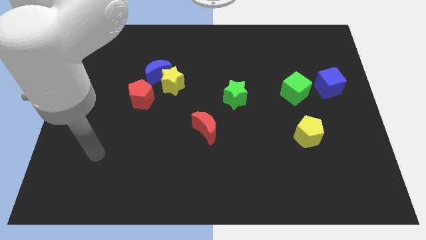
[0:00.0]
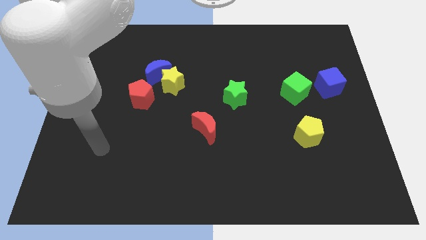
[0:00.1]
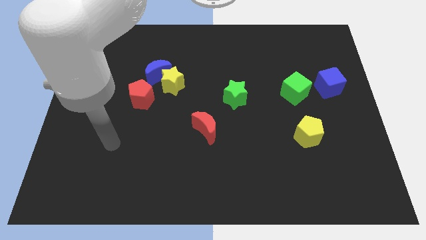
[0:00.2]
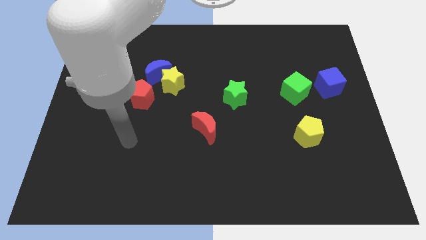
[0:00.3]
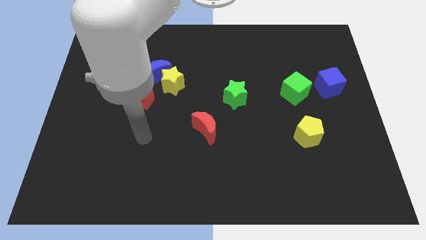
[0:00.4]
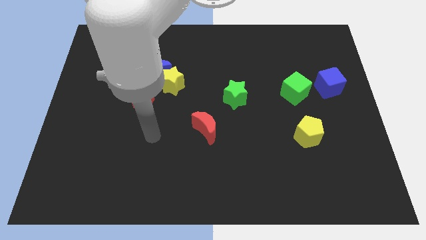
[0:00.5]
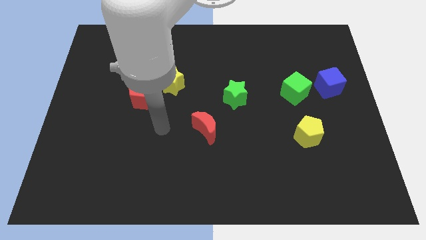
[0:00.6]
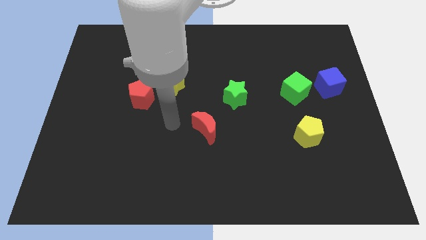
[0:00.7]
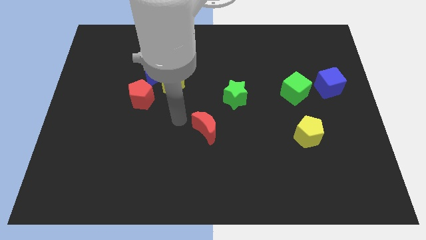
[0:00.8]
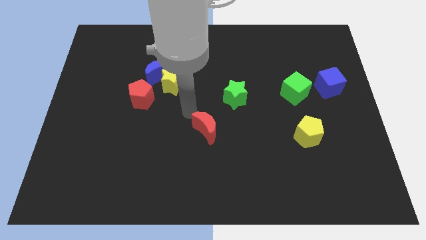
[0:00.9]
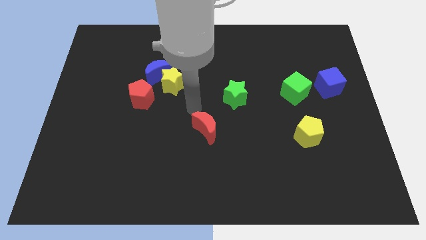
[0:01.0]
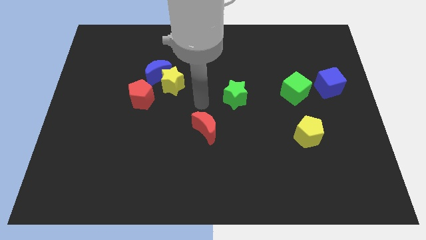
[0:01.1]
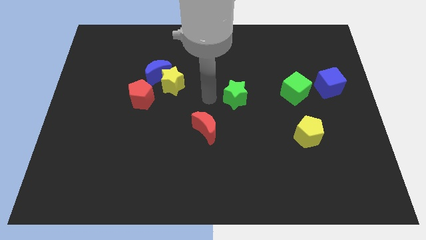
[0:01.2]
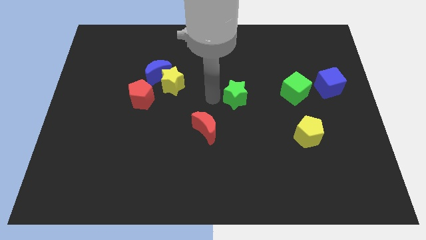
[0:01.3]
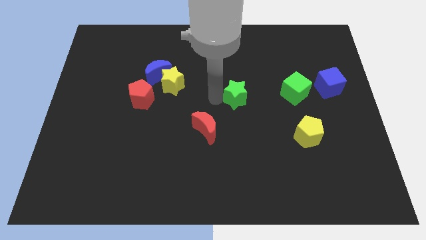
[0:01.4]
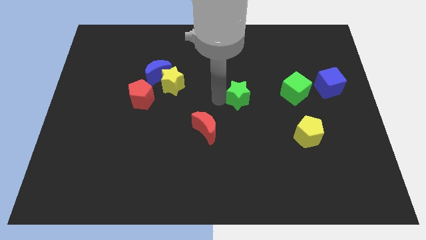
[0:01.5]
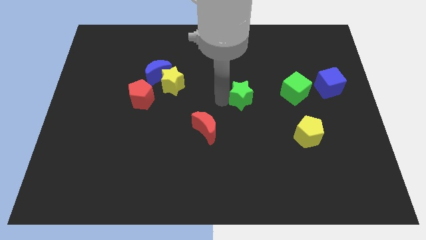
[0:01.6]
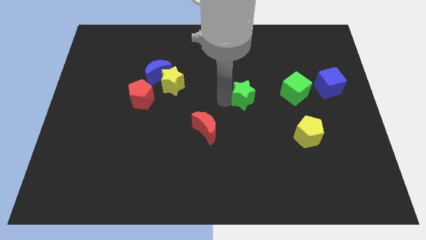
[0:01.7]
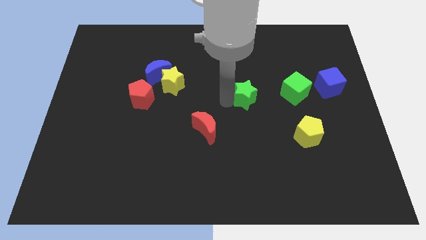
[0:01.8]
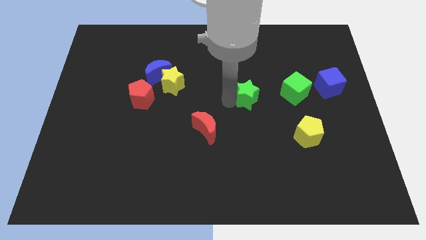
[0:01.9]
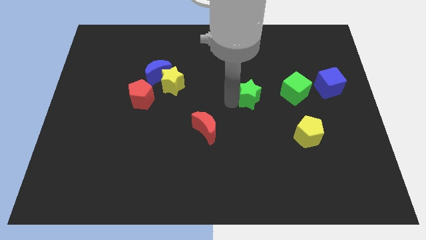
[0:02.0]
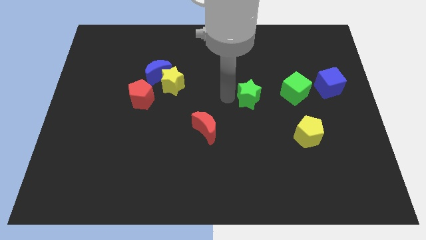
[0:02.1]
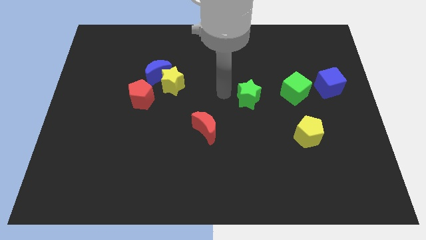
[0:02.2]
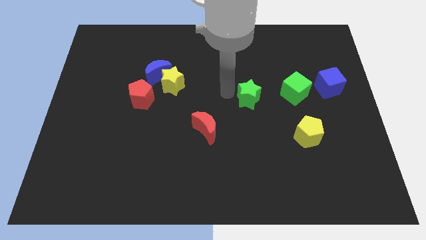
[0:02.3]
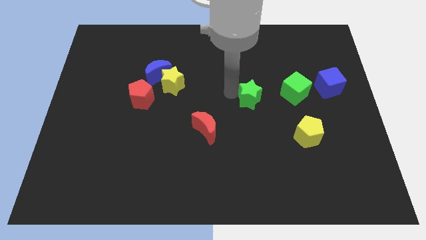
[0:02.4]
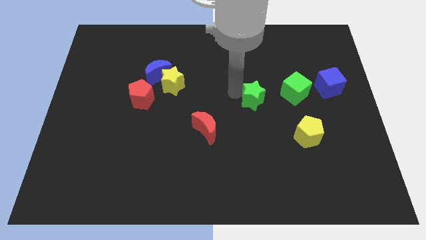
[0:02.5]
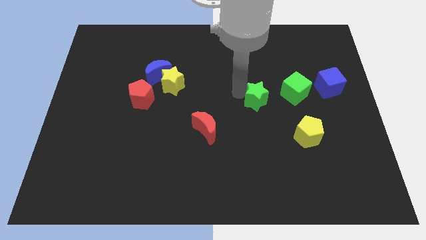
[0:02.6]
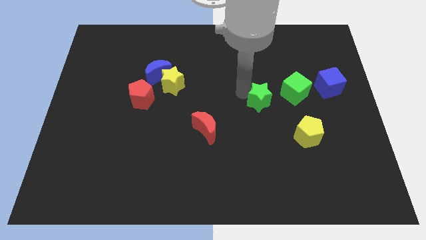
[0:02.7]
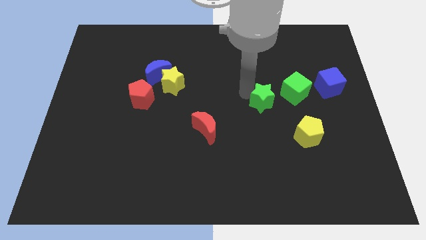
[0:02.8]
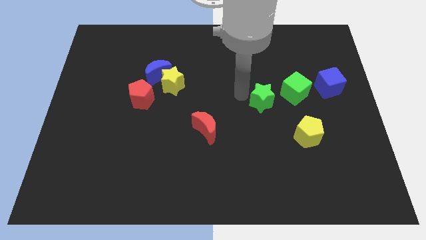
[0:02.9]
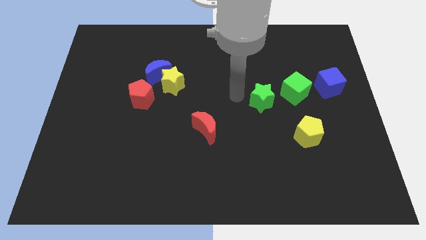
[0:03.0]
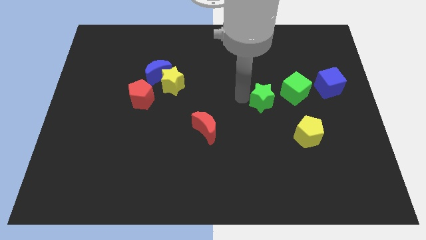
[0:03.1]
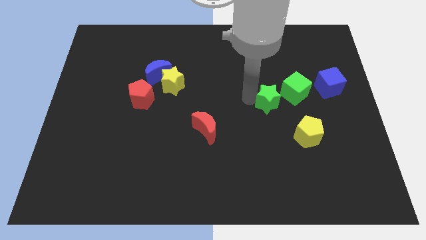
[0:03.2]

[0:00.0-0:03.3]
move the green star slightly to the right

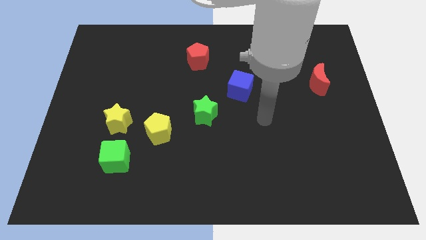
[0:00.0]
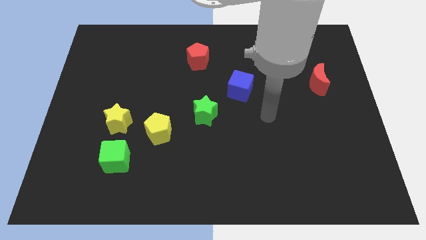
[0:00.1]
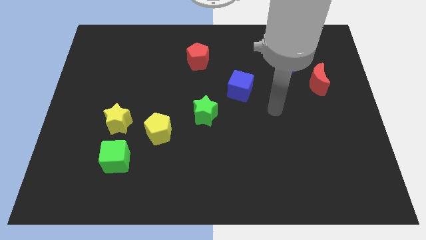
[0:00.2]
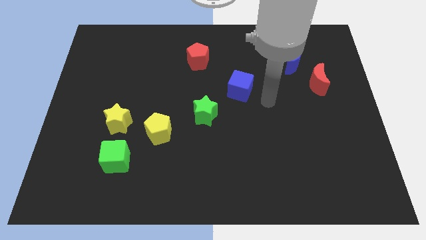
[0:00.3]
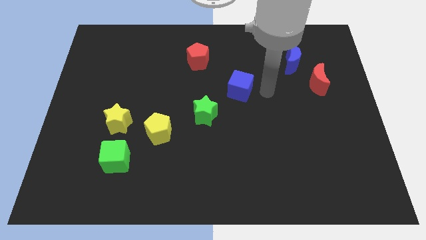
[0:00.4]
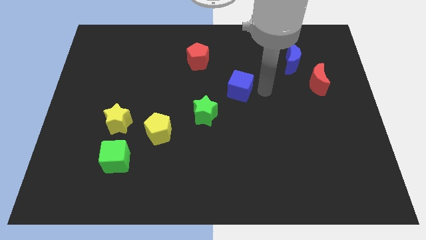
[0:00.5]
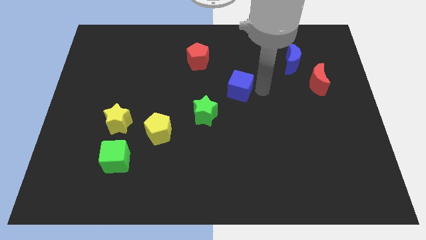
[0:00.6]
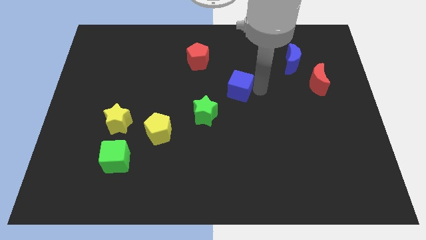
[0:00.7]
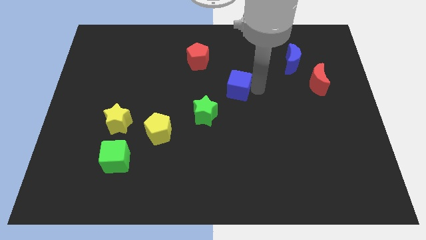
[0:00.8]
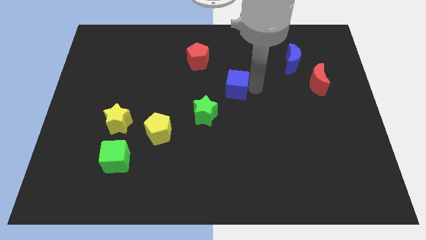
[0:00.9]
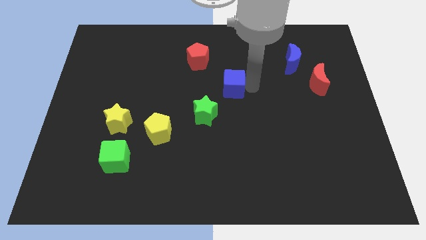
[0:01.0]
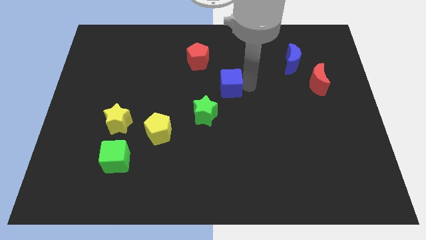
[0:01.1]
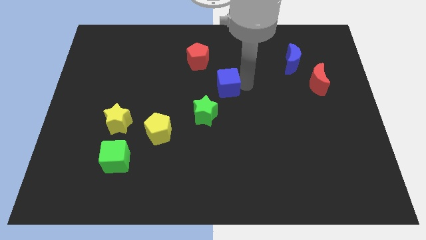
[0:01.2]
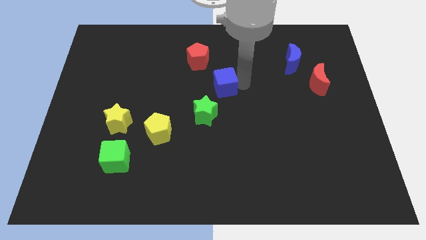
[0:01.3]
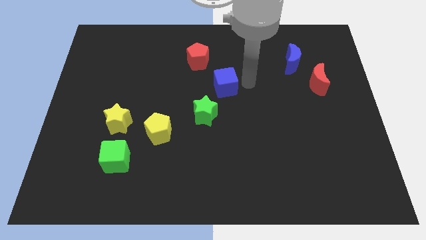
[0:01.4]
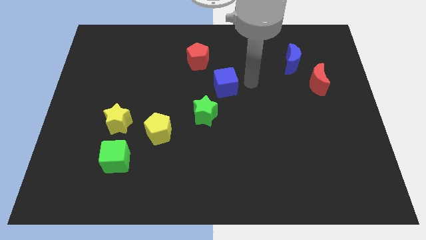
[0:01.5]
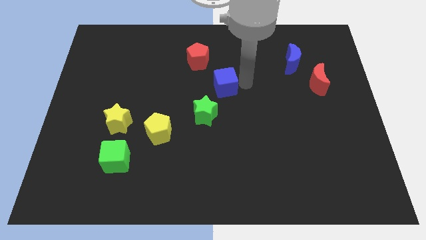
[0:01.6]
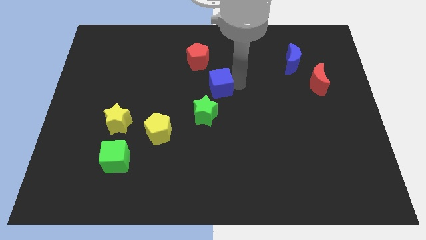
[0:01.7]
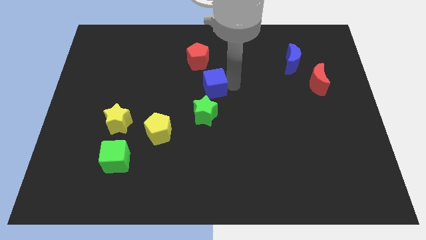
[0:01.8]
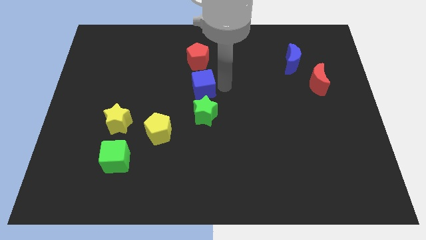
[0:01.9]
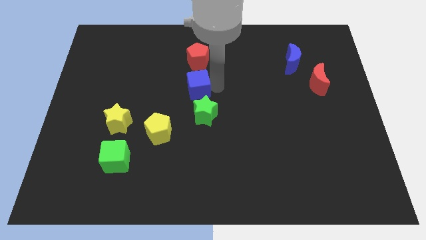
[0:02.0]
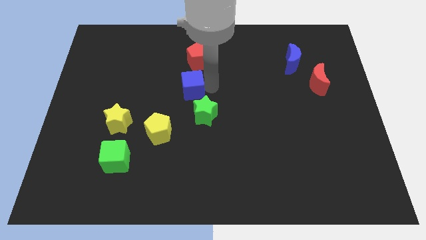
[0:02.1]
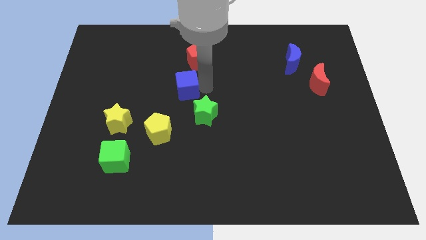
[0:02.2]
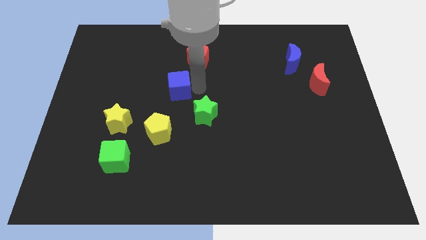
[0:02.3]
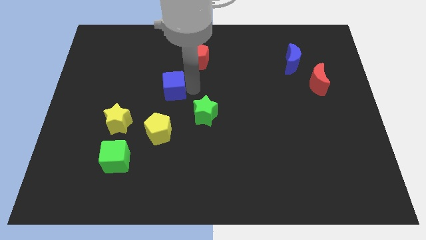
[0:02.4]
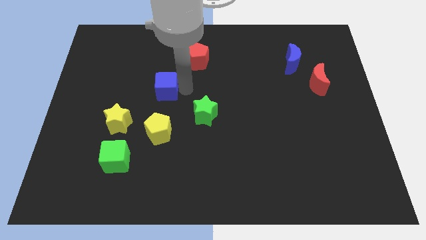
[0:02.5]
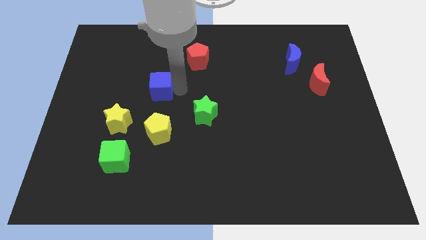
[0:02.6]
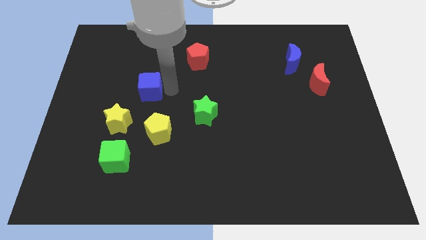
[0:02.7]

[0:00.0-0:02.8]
push the blue cube left

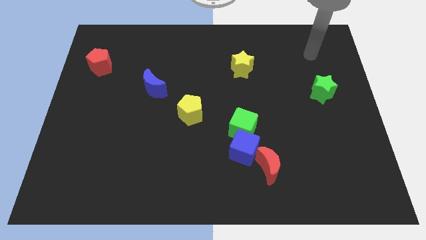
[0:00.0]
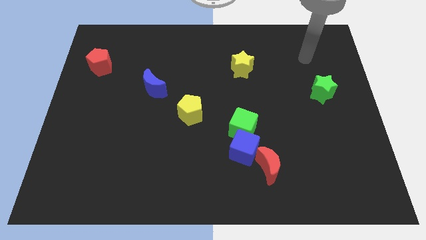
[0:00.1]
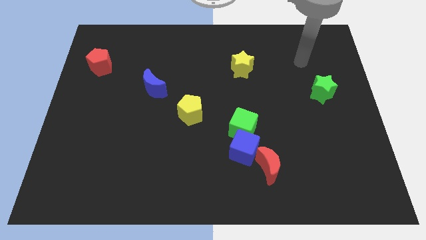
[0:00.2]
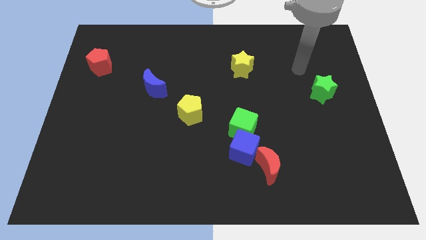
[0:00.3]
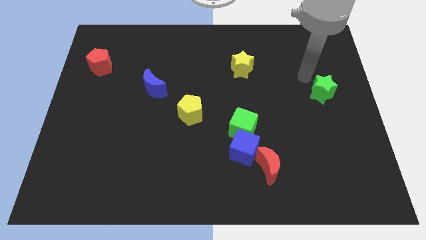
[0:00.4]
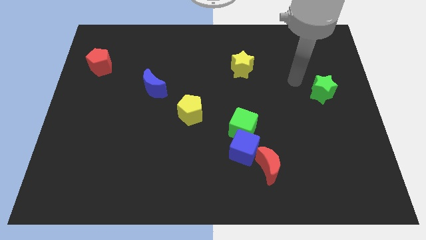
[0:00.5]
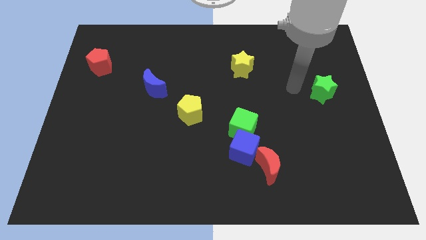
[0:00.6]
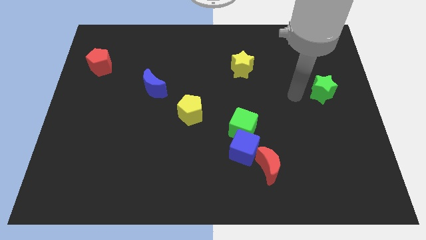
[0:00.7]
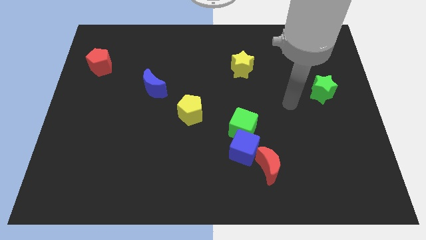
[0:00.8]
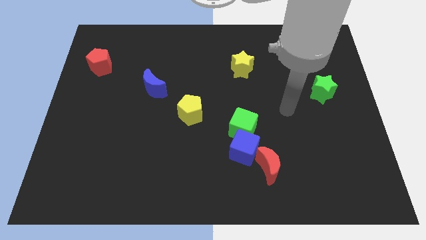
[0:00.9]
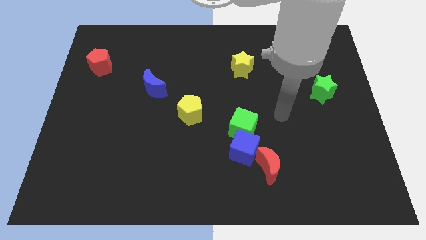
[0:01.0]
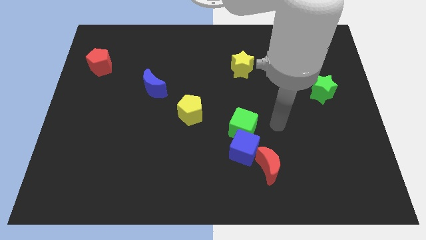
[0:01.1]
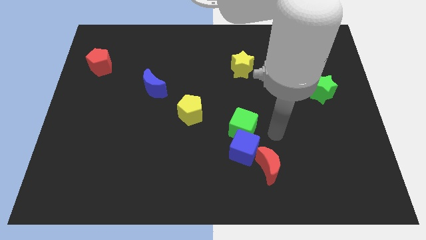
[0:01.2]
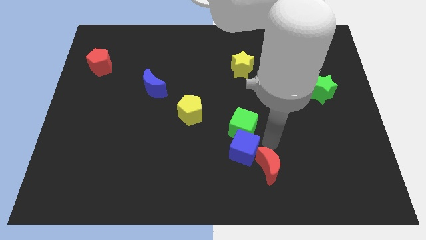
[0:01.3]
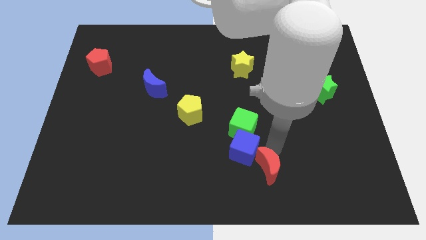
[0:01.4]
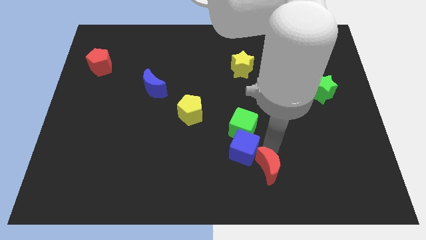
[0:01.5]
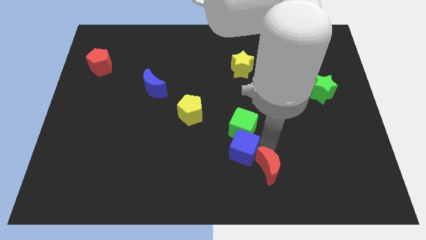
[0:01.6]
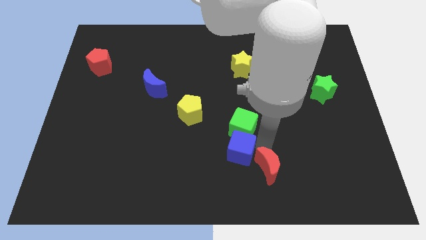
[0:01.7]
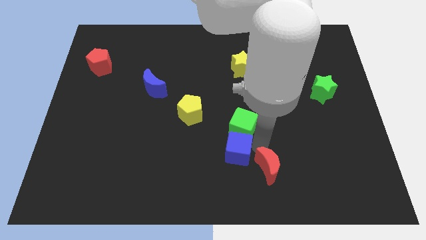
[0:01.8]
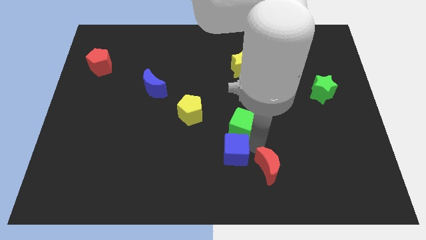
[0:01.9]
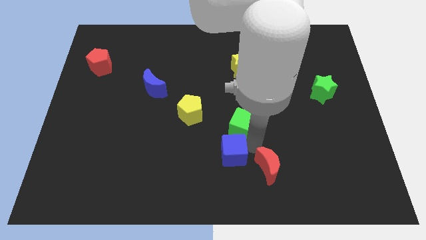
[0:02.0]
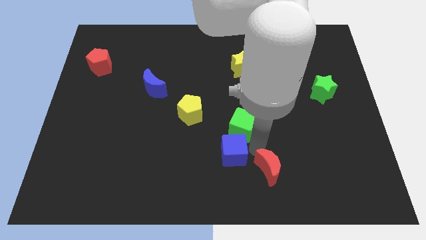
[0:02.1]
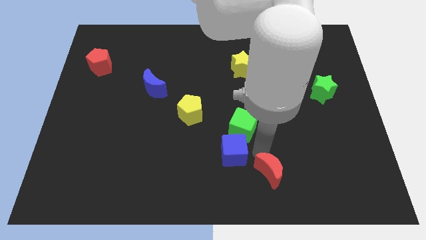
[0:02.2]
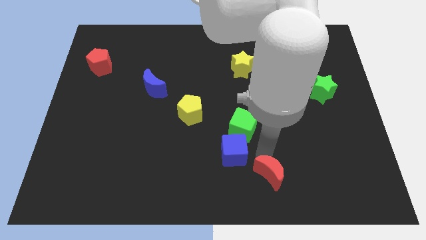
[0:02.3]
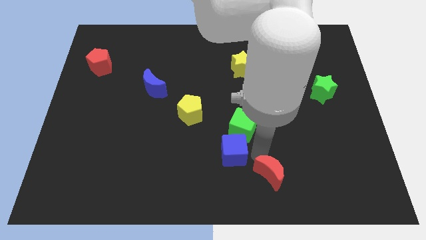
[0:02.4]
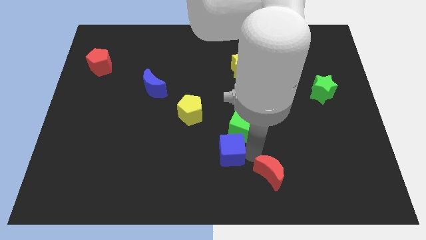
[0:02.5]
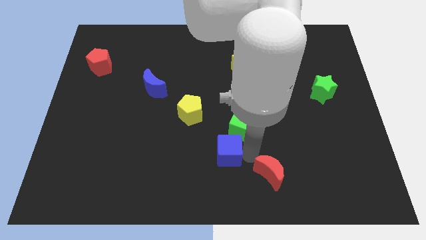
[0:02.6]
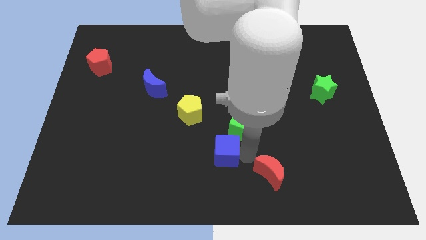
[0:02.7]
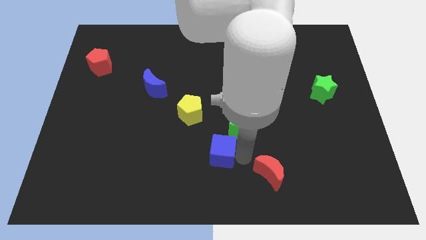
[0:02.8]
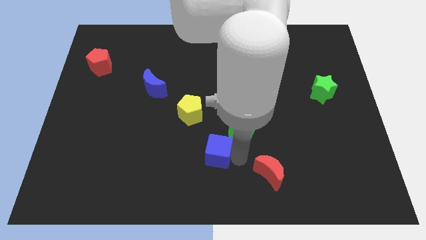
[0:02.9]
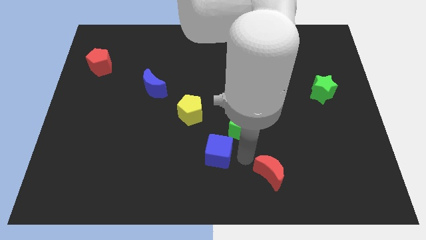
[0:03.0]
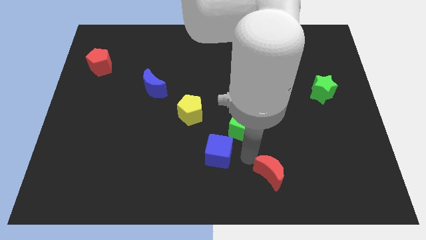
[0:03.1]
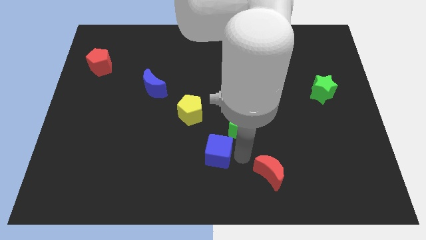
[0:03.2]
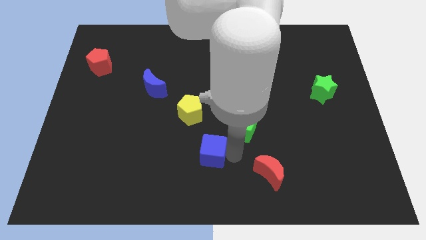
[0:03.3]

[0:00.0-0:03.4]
move the blue cube left a little
